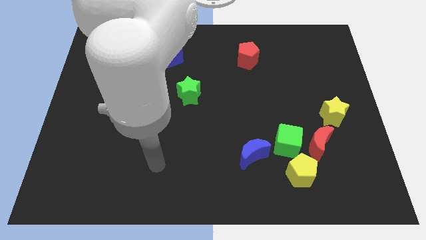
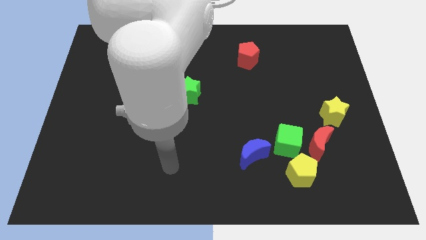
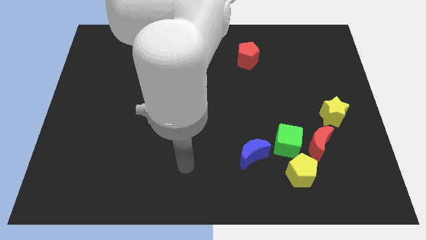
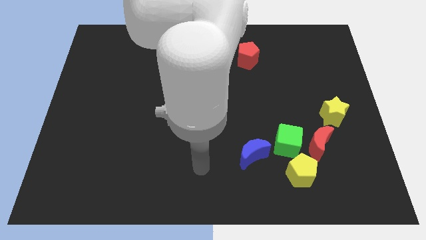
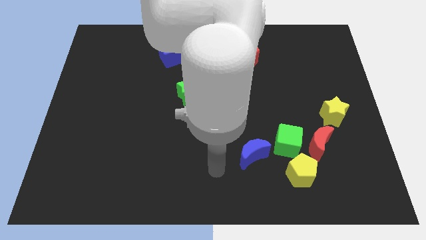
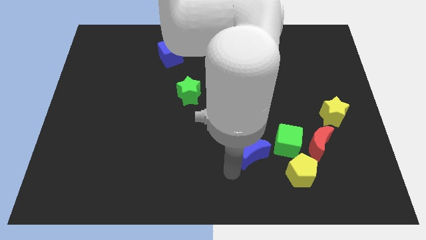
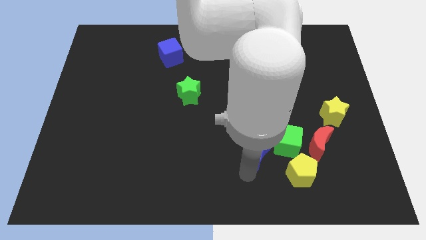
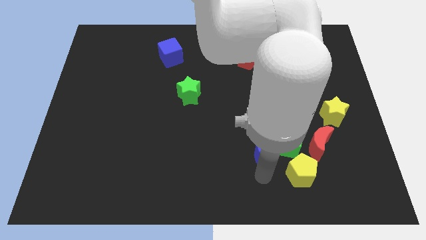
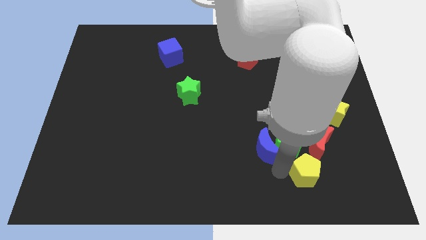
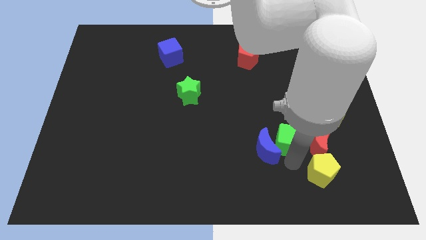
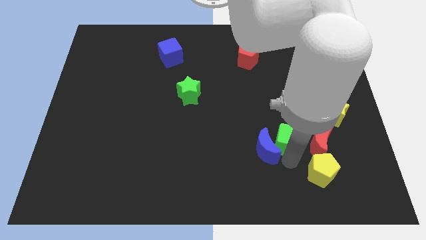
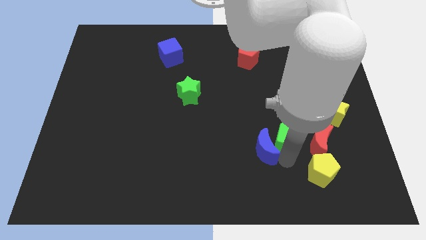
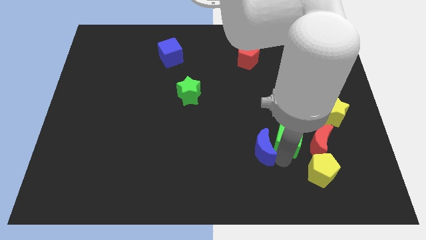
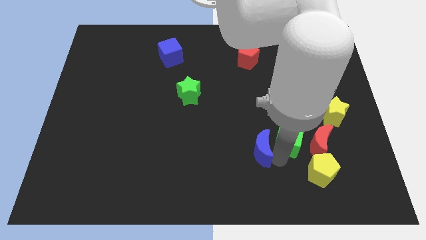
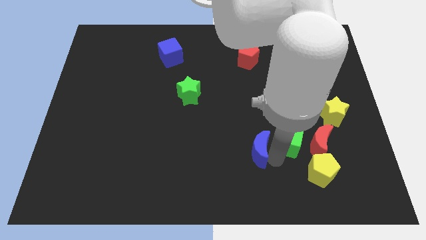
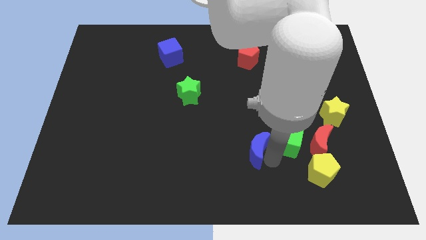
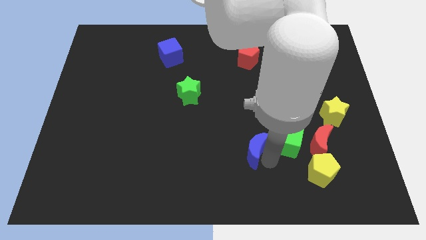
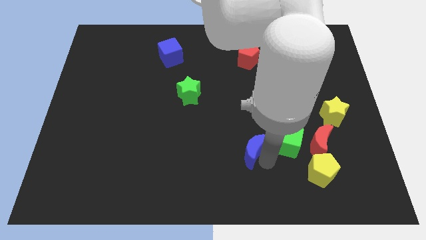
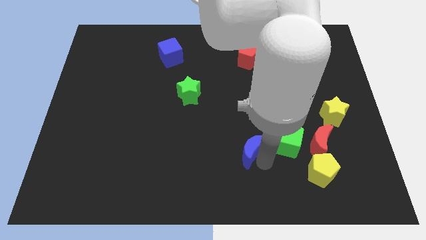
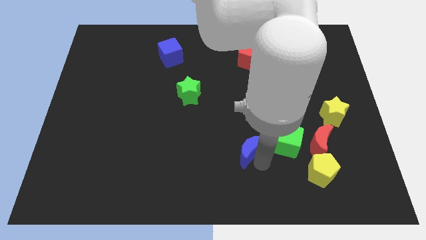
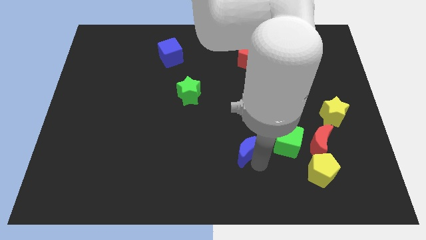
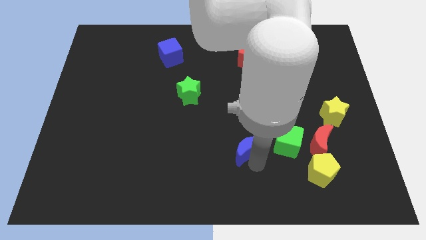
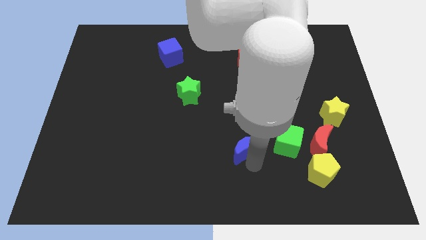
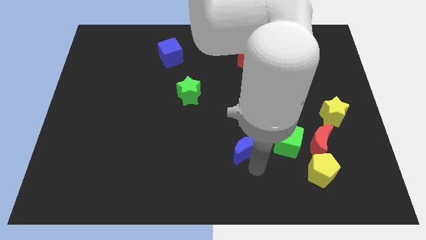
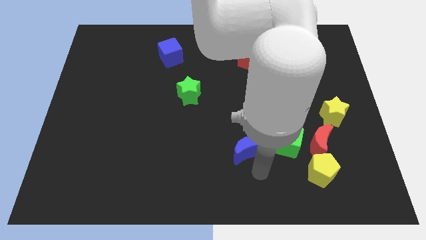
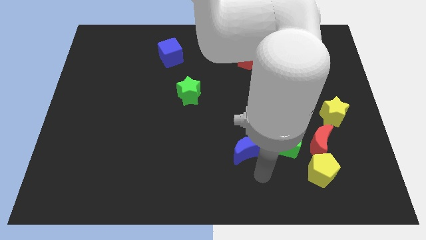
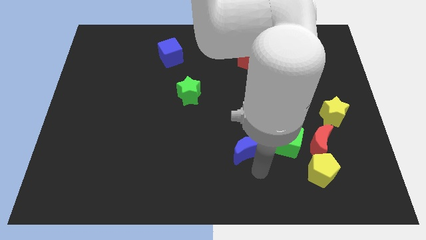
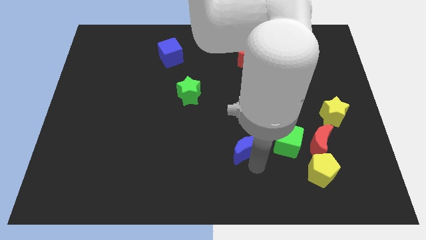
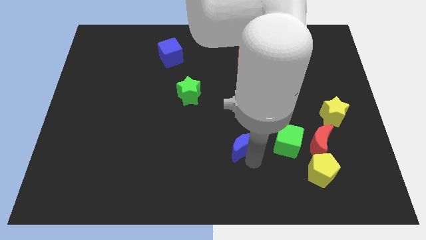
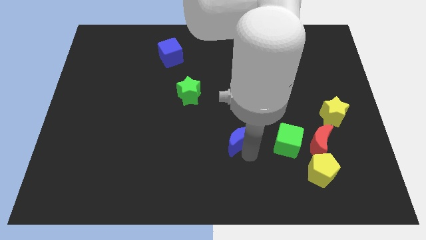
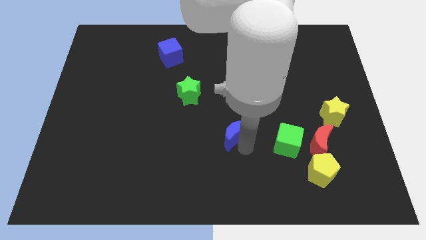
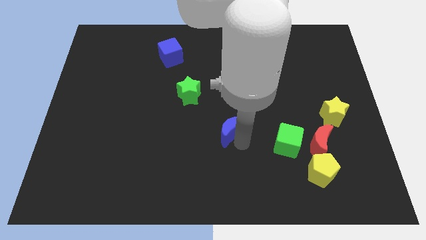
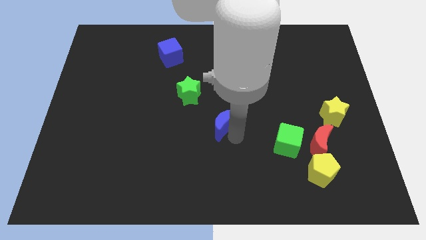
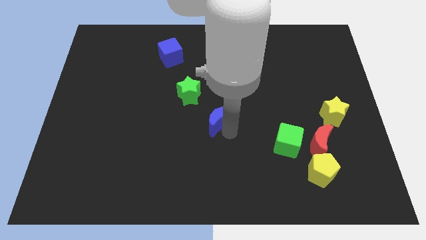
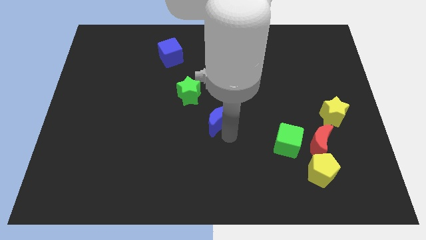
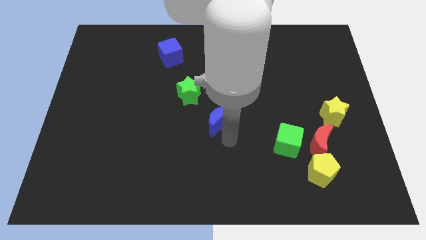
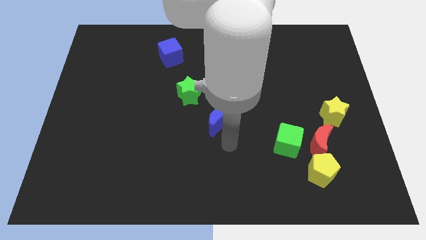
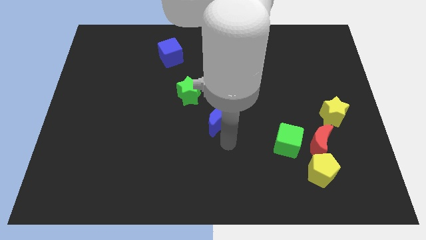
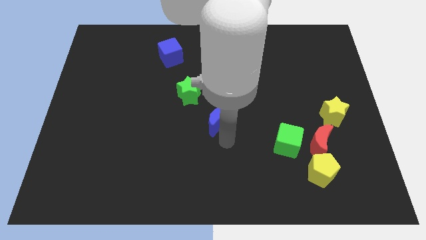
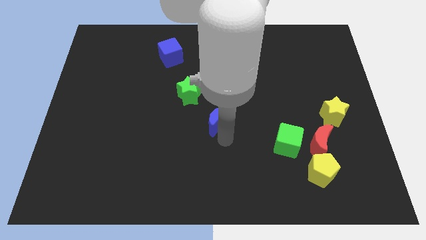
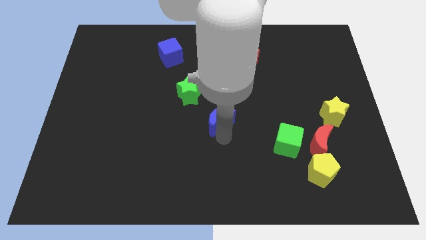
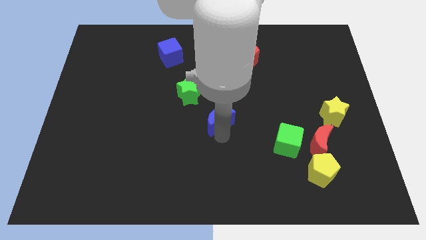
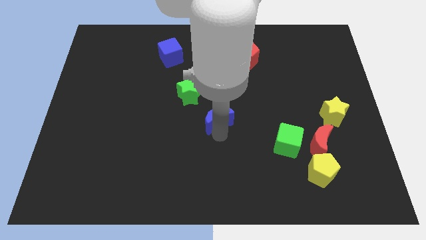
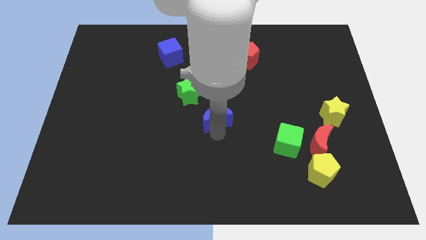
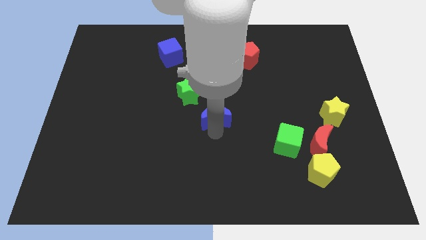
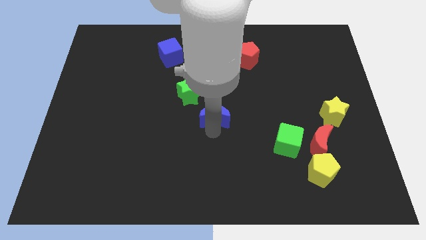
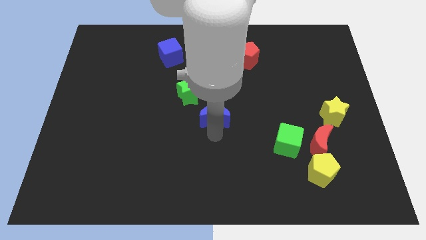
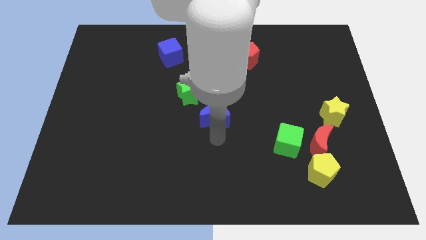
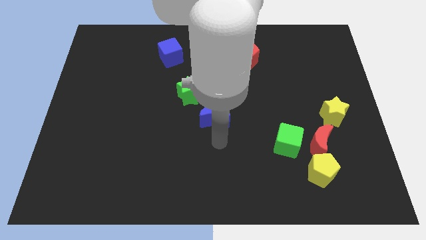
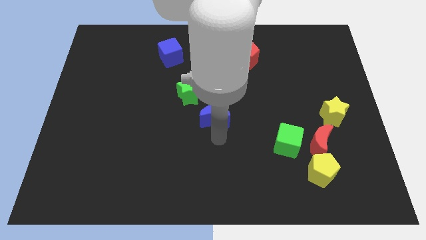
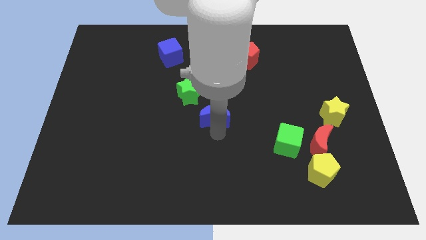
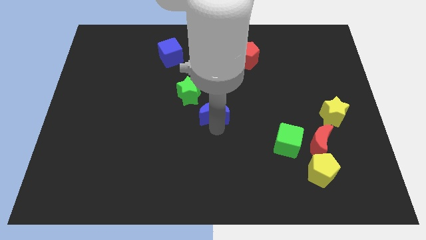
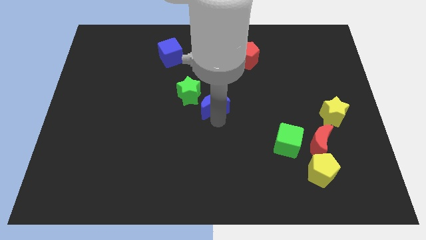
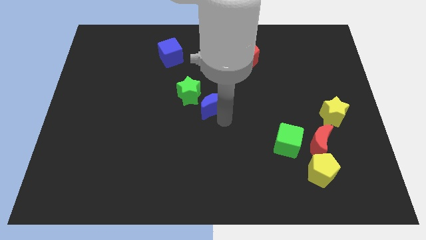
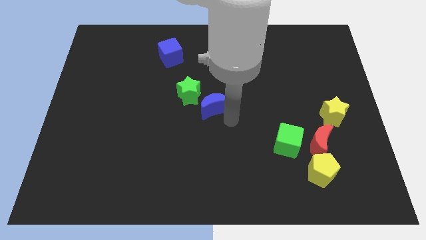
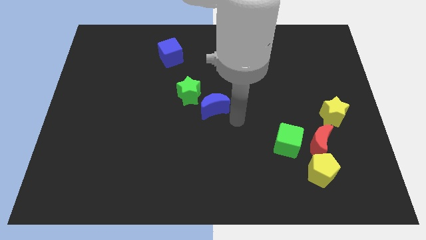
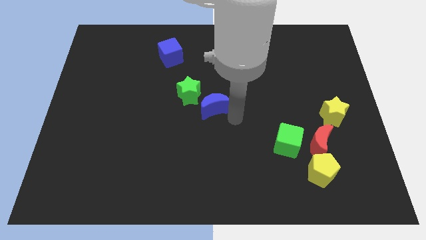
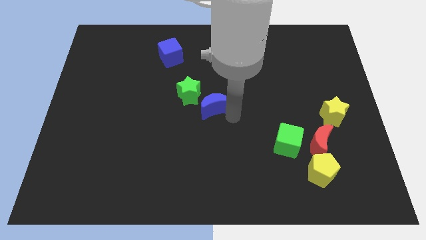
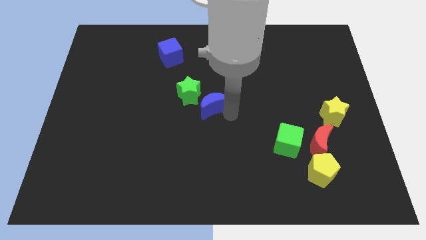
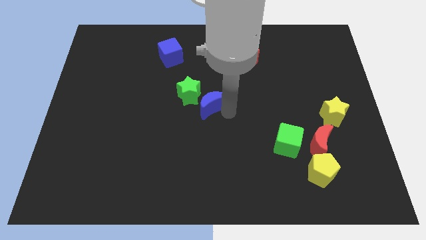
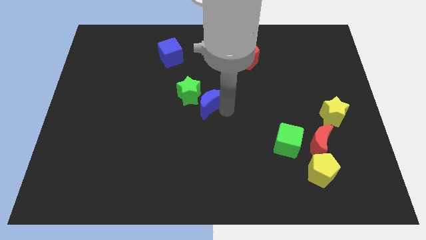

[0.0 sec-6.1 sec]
push the blue moon towards the green star

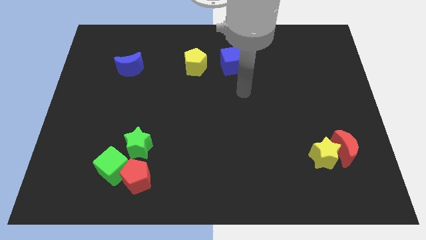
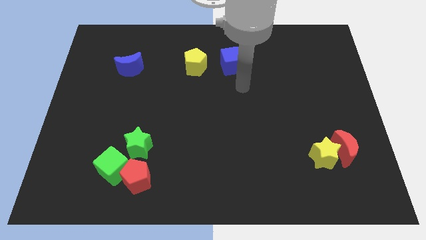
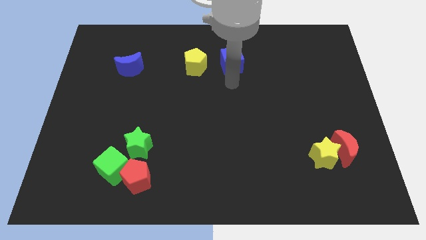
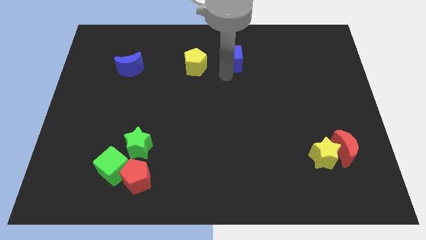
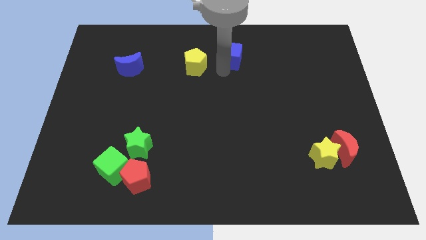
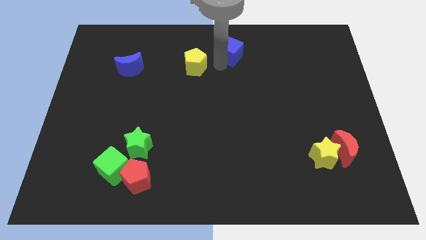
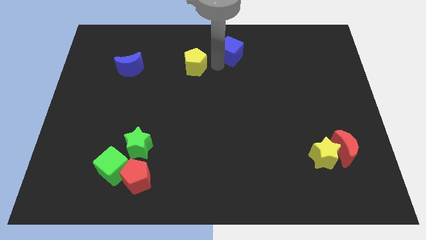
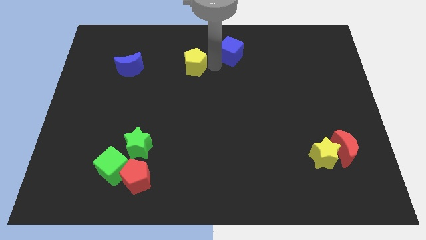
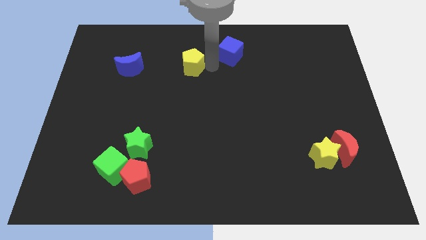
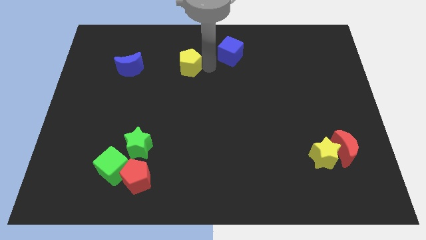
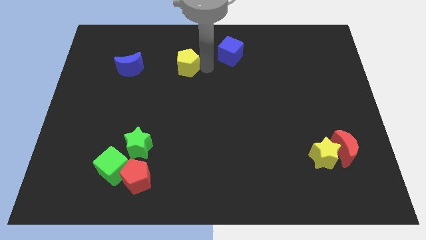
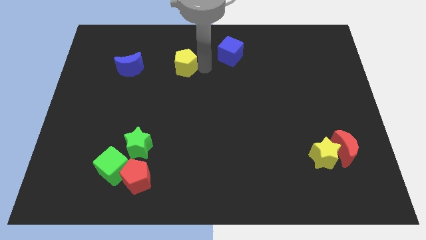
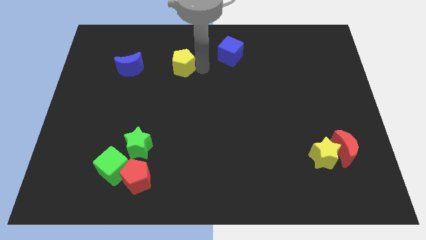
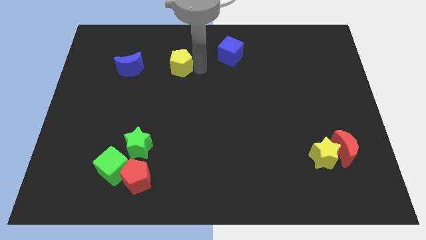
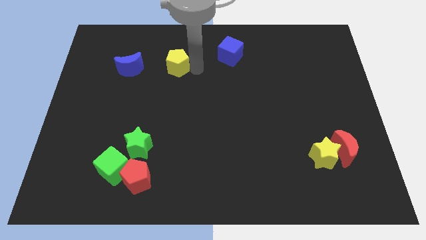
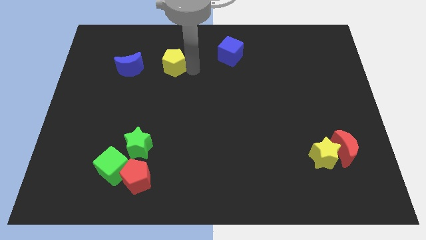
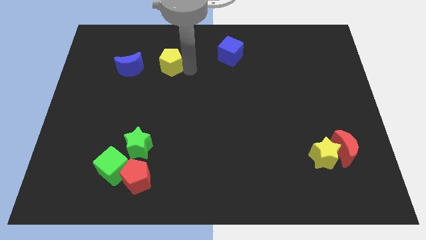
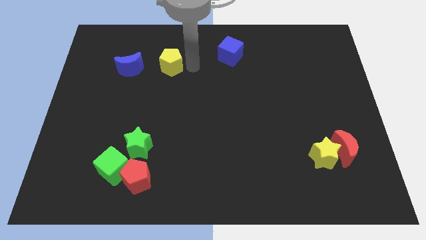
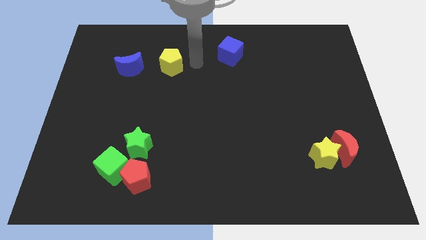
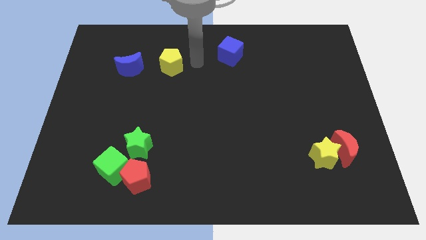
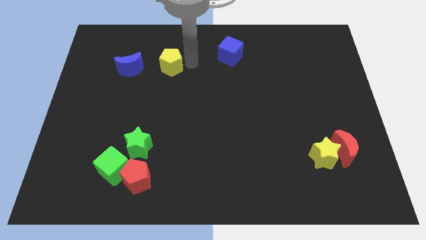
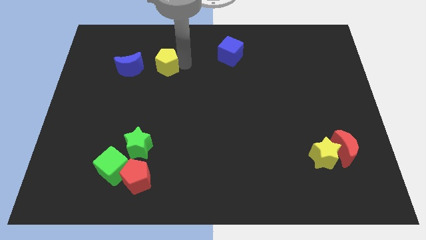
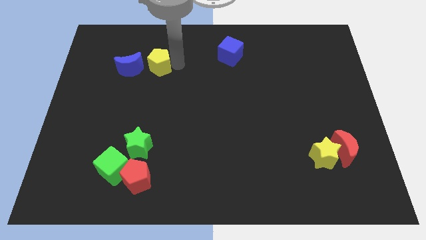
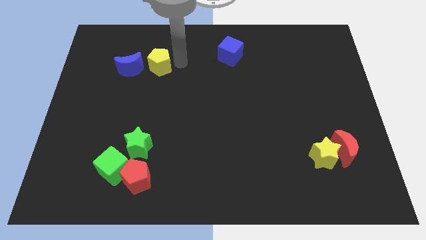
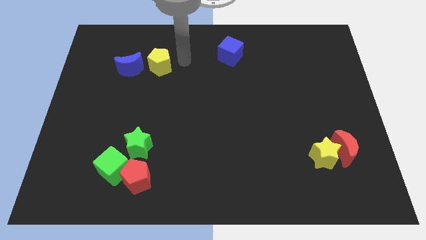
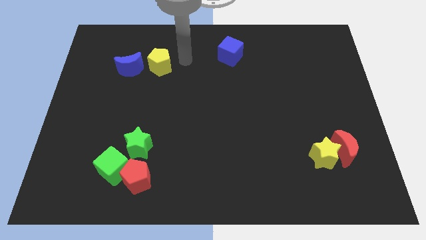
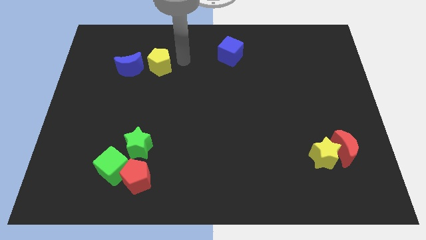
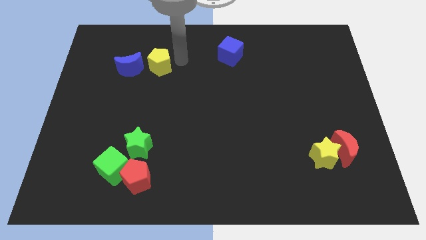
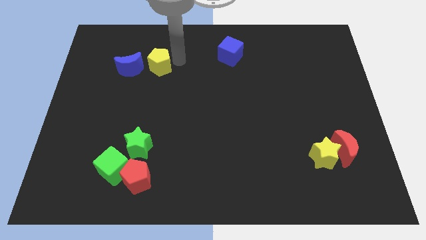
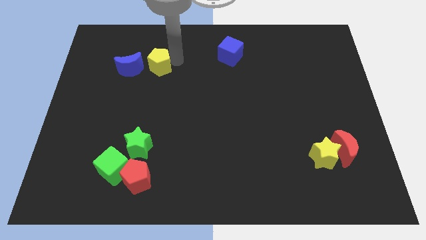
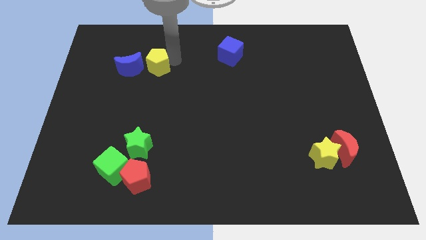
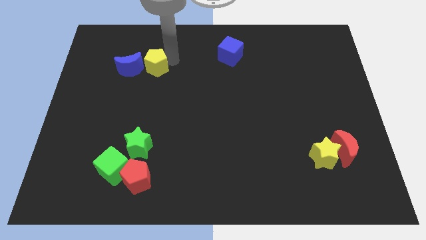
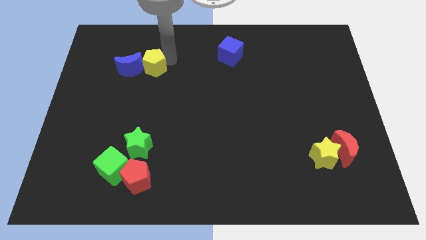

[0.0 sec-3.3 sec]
push the yellow pentagon to the blue moon
